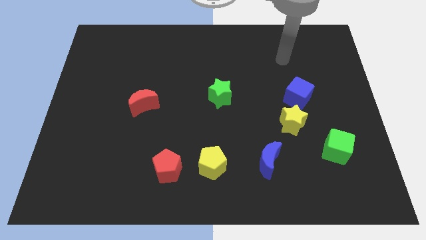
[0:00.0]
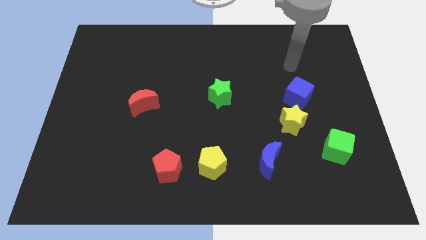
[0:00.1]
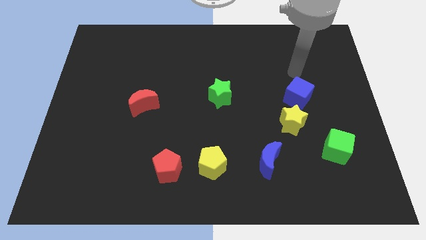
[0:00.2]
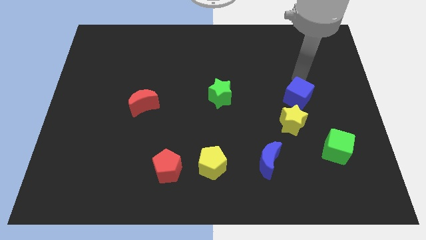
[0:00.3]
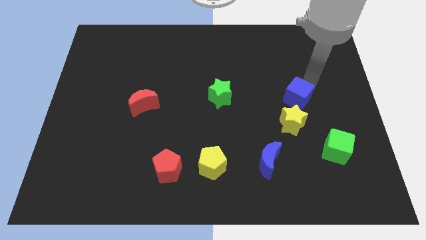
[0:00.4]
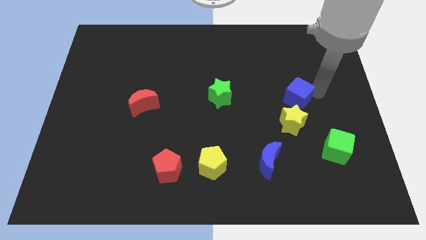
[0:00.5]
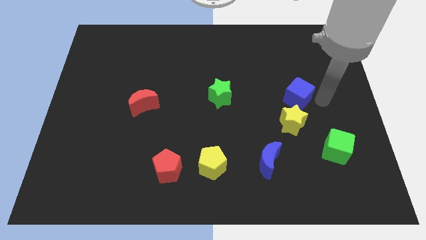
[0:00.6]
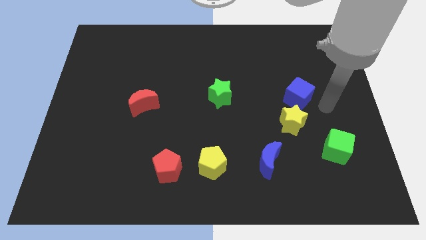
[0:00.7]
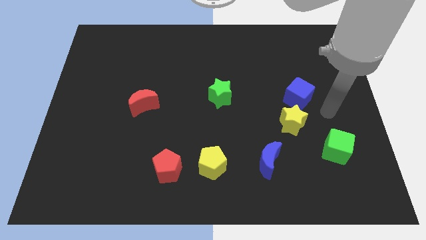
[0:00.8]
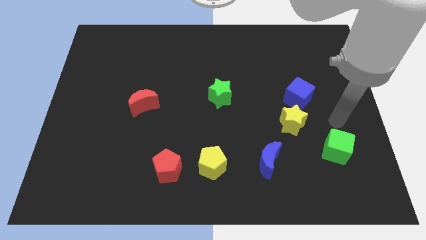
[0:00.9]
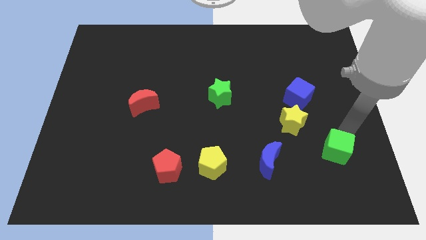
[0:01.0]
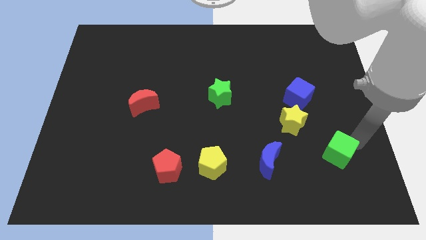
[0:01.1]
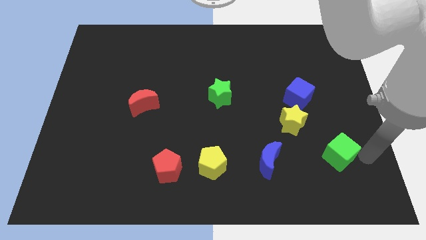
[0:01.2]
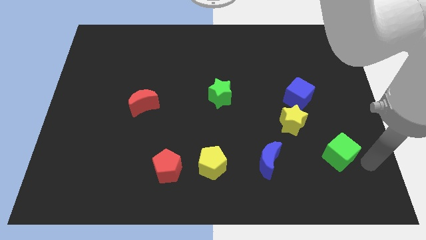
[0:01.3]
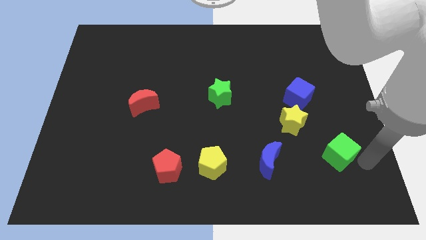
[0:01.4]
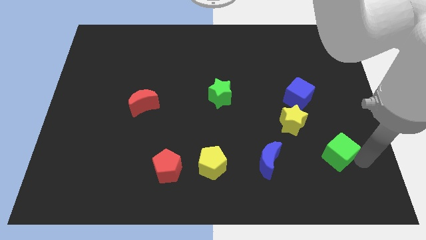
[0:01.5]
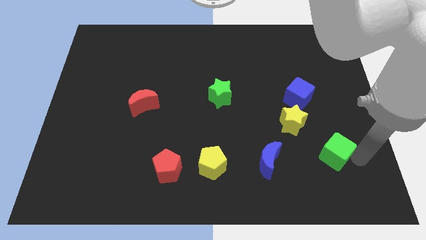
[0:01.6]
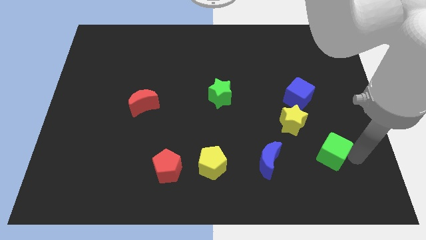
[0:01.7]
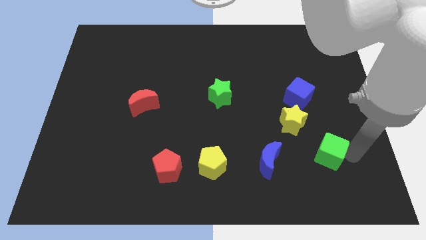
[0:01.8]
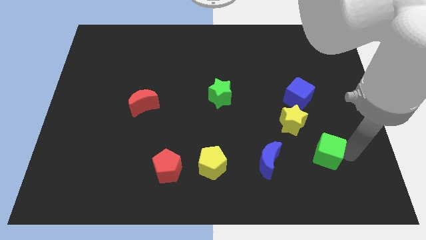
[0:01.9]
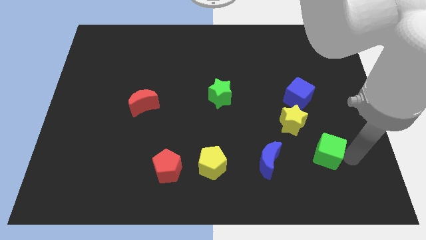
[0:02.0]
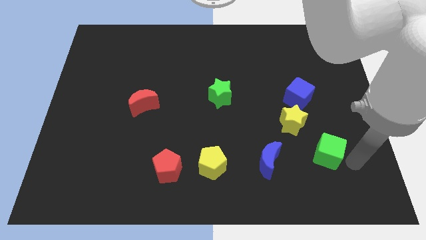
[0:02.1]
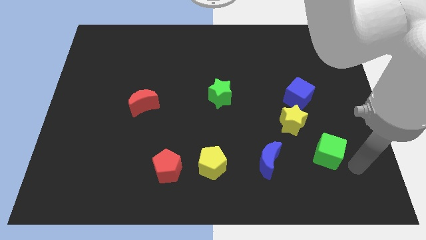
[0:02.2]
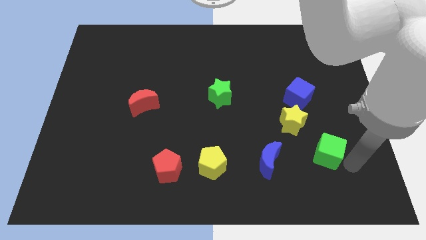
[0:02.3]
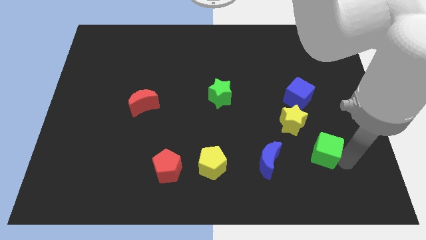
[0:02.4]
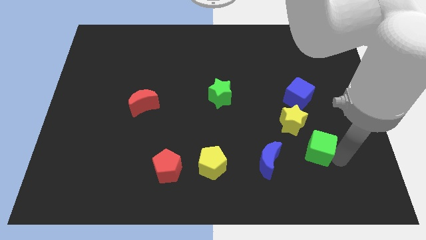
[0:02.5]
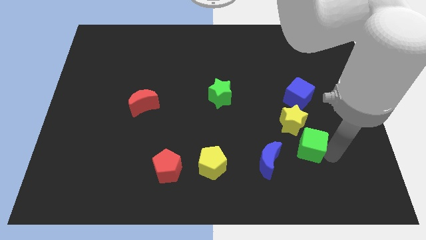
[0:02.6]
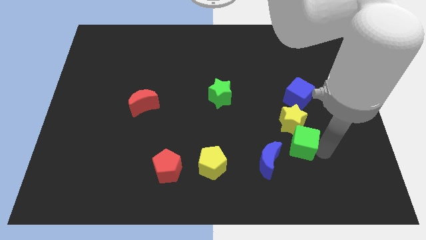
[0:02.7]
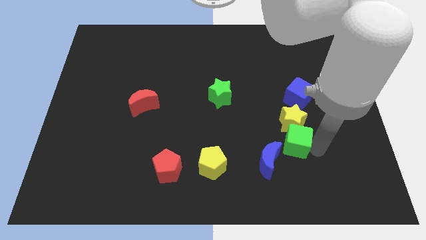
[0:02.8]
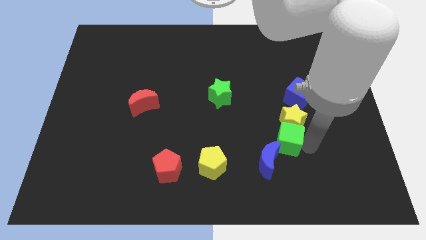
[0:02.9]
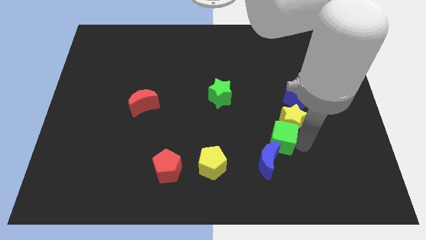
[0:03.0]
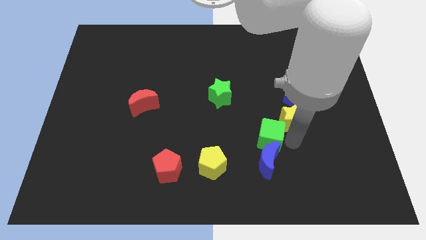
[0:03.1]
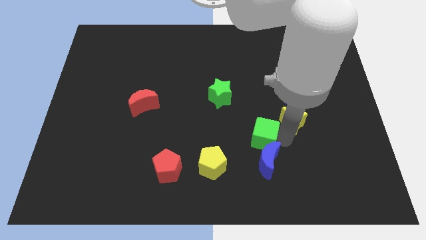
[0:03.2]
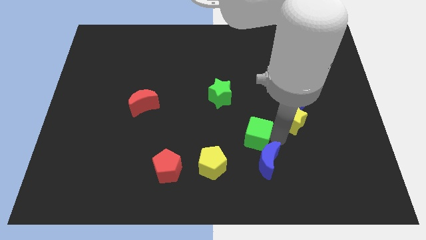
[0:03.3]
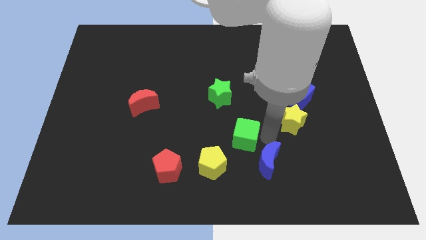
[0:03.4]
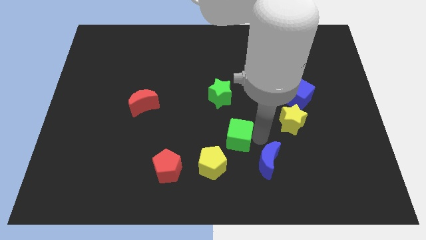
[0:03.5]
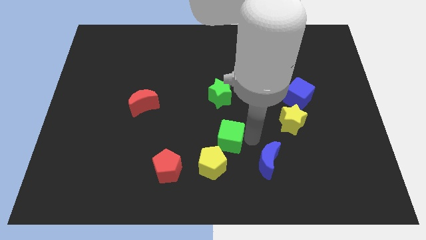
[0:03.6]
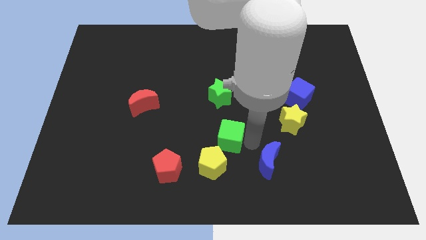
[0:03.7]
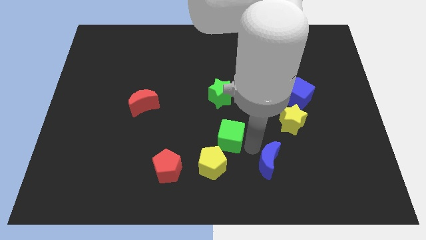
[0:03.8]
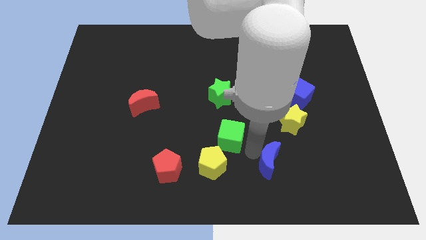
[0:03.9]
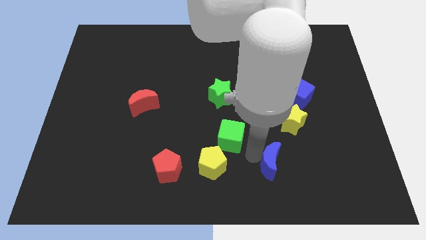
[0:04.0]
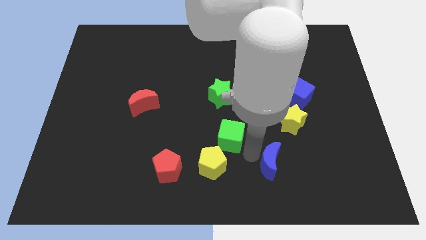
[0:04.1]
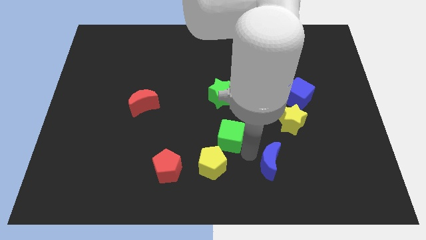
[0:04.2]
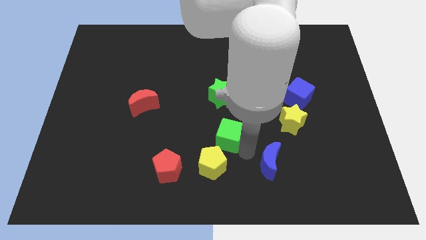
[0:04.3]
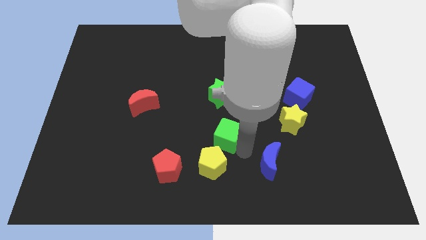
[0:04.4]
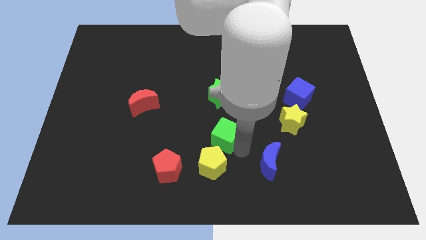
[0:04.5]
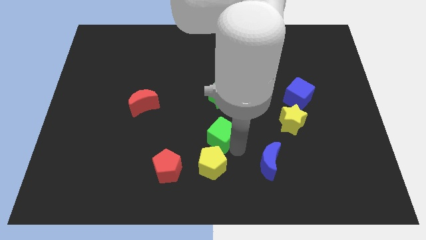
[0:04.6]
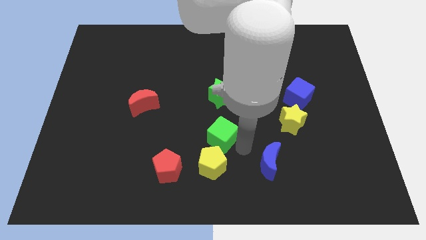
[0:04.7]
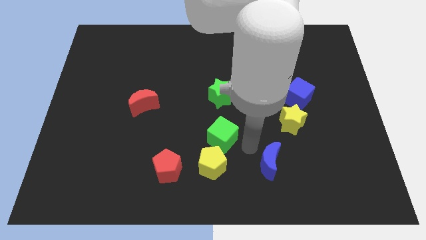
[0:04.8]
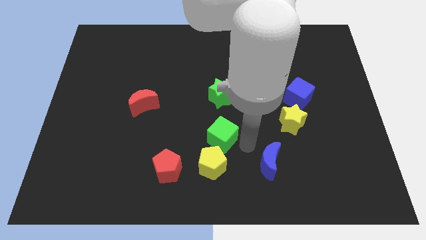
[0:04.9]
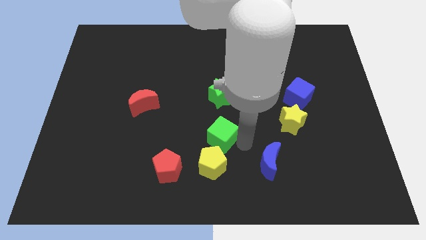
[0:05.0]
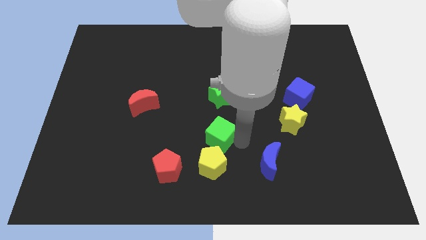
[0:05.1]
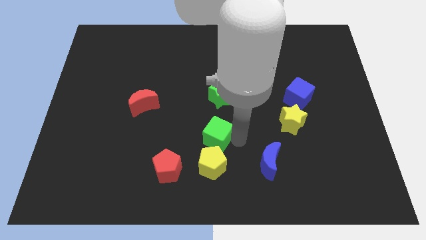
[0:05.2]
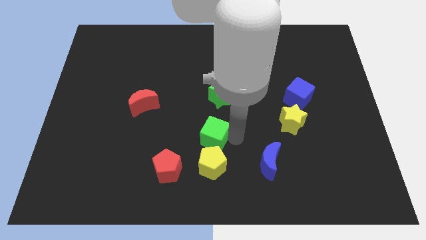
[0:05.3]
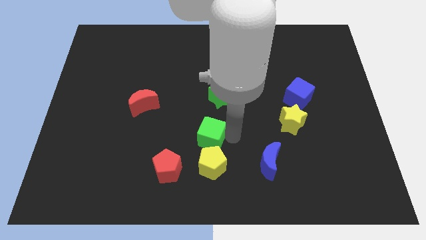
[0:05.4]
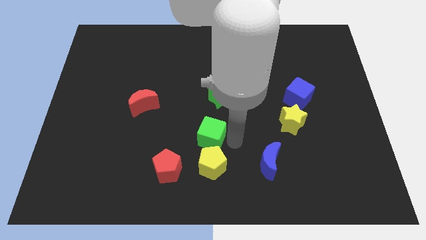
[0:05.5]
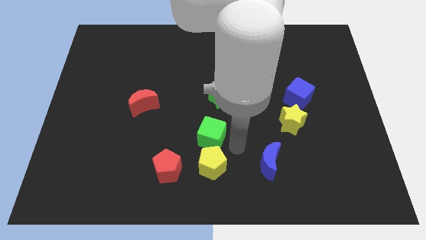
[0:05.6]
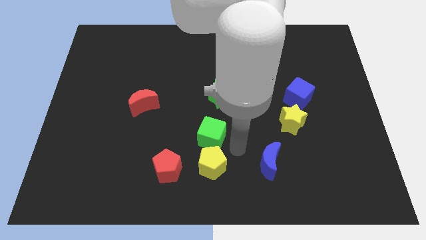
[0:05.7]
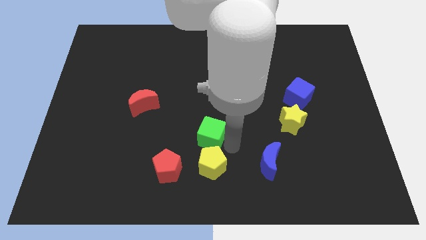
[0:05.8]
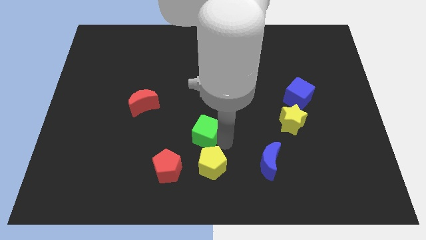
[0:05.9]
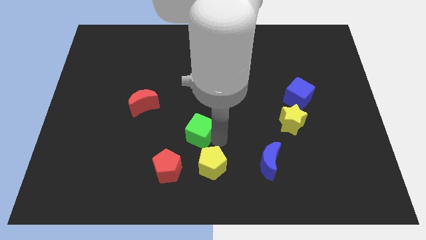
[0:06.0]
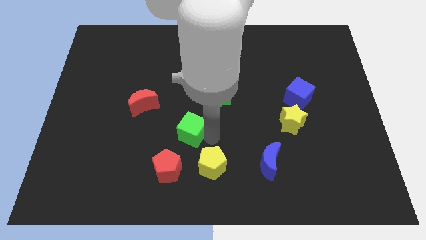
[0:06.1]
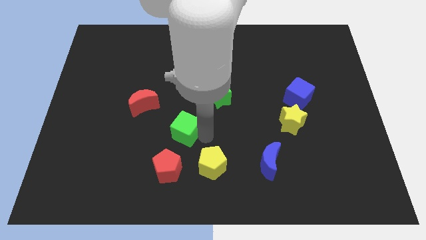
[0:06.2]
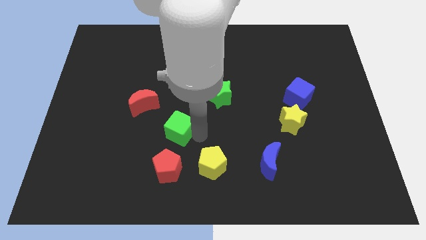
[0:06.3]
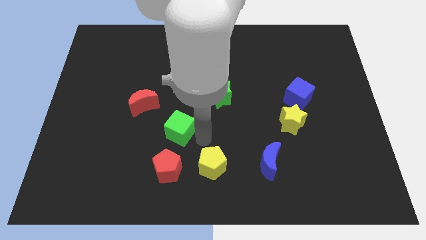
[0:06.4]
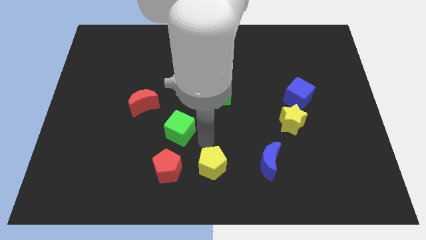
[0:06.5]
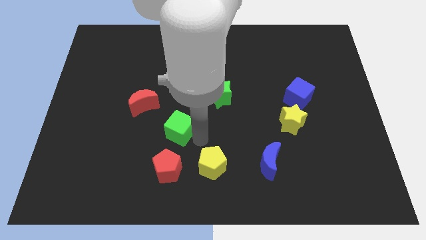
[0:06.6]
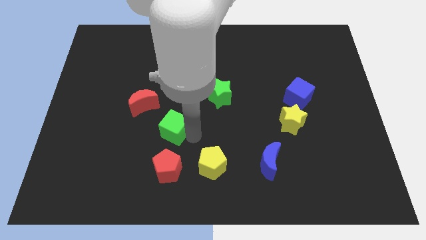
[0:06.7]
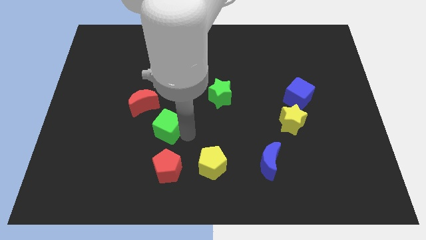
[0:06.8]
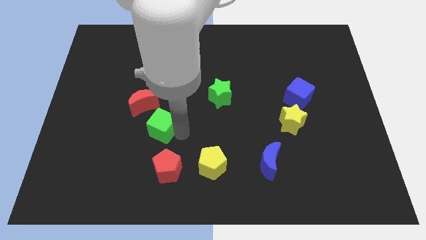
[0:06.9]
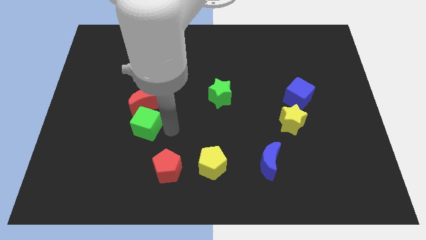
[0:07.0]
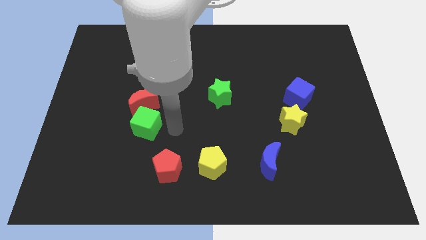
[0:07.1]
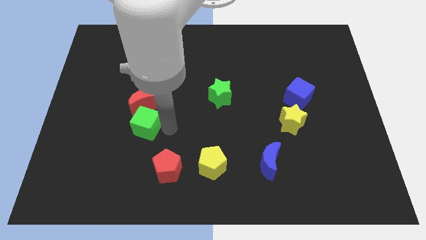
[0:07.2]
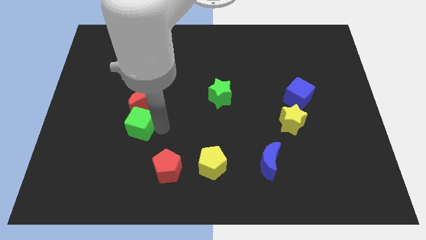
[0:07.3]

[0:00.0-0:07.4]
push the green cube diagonally down and to the left of the red moon
